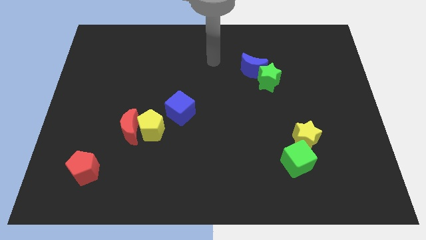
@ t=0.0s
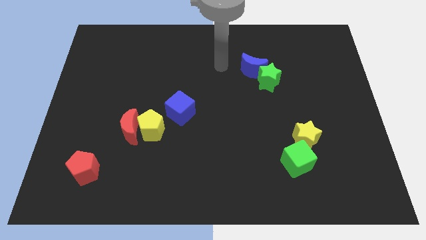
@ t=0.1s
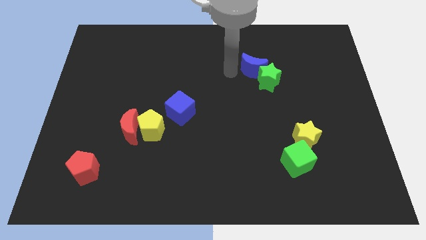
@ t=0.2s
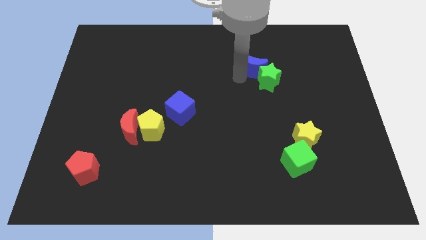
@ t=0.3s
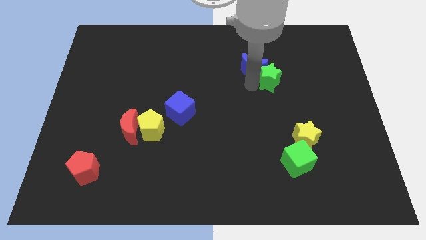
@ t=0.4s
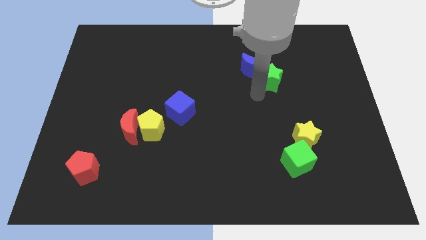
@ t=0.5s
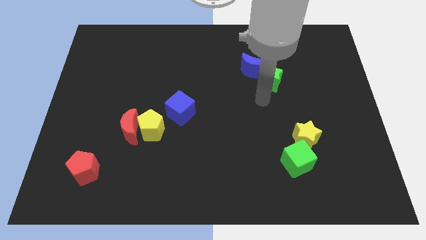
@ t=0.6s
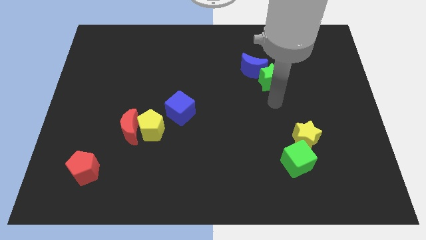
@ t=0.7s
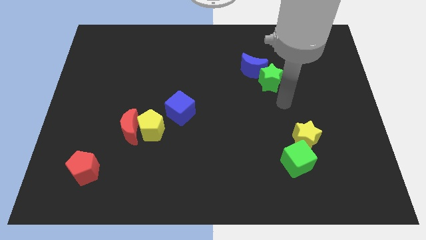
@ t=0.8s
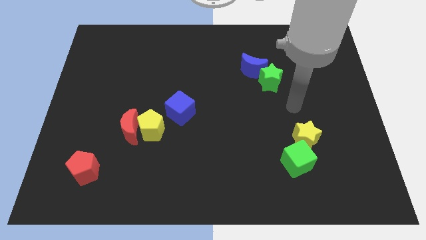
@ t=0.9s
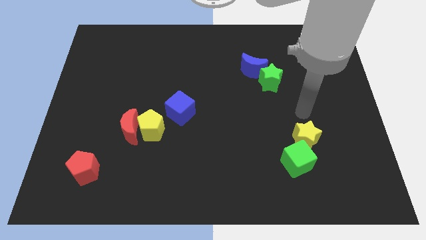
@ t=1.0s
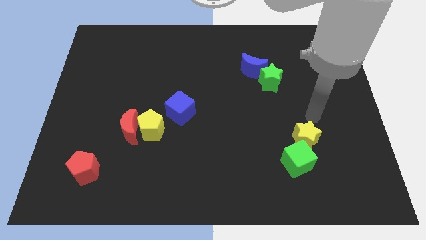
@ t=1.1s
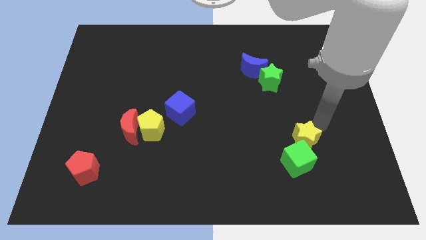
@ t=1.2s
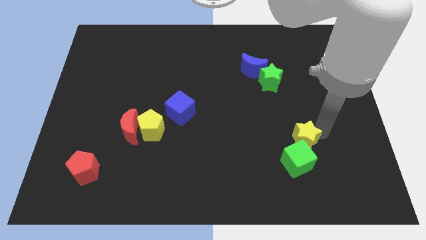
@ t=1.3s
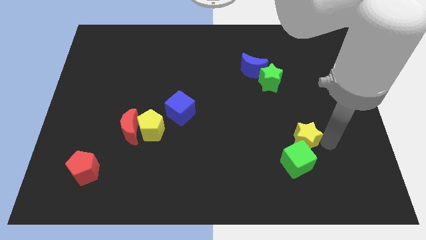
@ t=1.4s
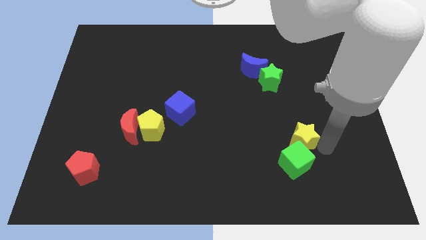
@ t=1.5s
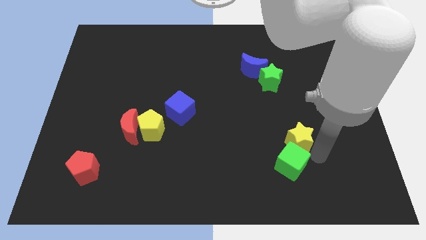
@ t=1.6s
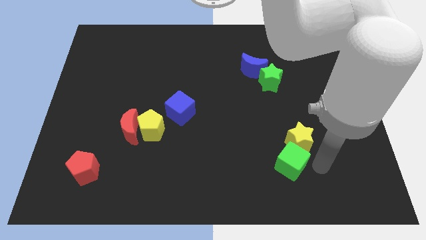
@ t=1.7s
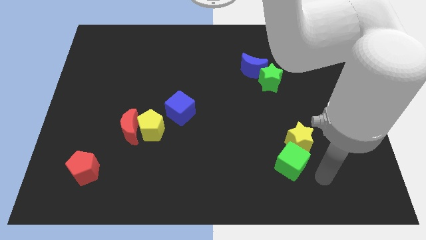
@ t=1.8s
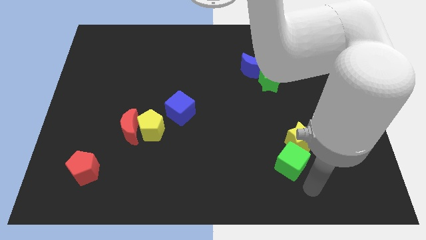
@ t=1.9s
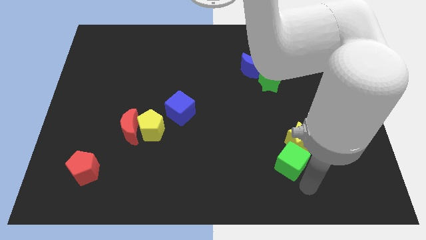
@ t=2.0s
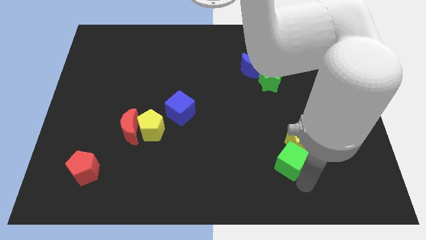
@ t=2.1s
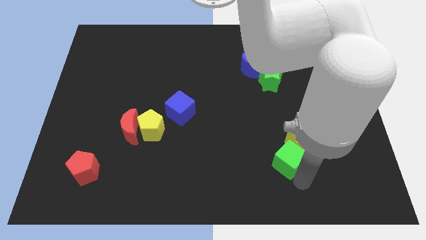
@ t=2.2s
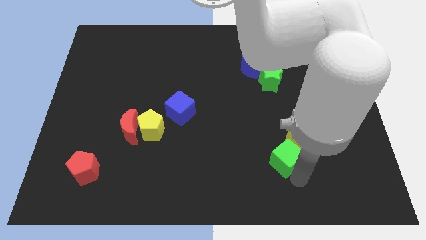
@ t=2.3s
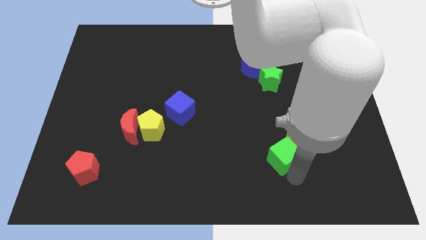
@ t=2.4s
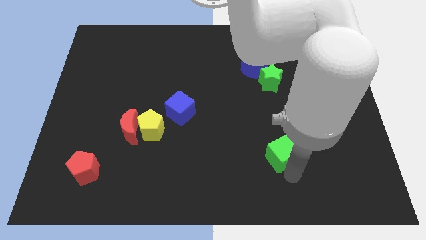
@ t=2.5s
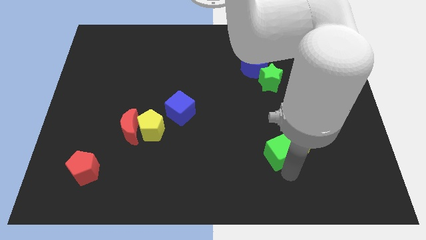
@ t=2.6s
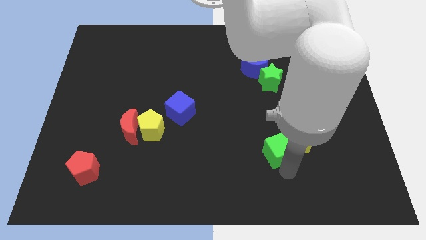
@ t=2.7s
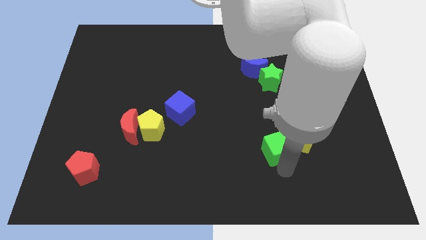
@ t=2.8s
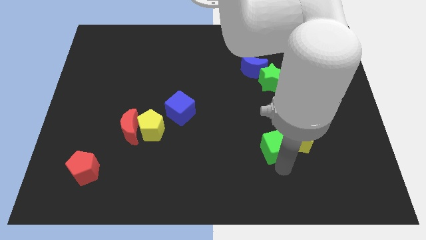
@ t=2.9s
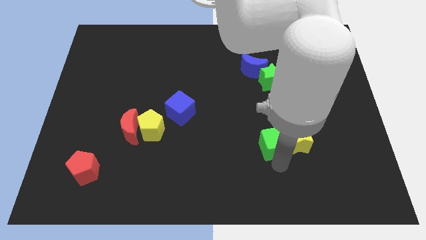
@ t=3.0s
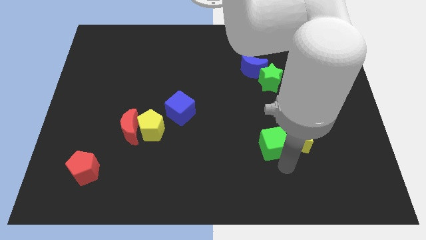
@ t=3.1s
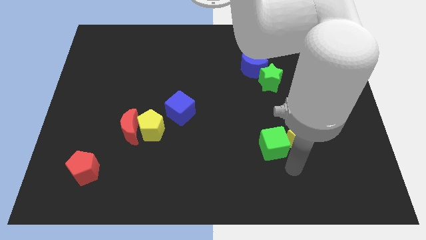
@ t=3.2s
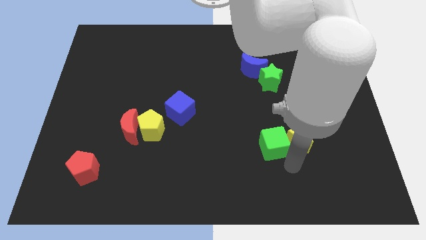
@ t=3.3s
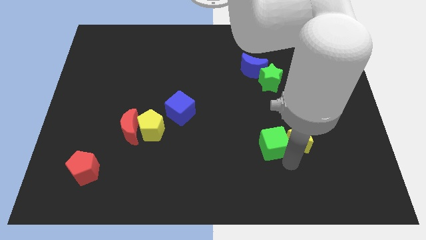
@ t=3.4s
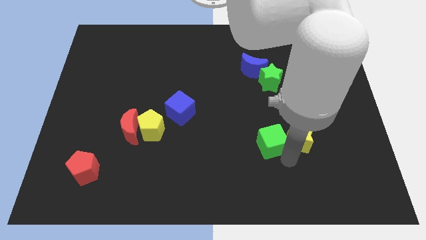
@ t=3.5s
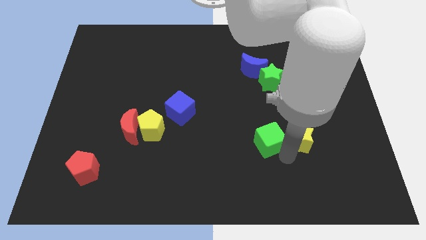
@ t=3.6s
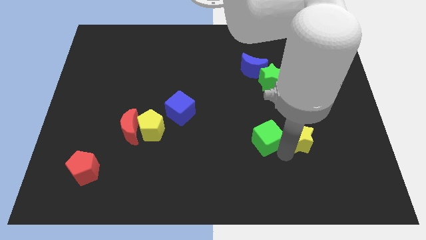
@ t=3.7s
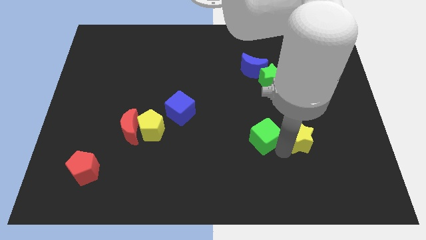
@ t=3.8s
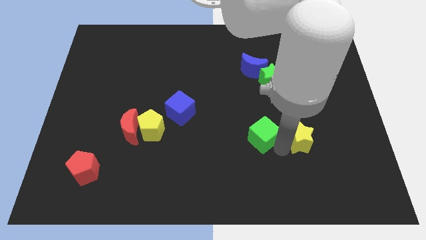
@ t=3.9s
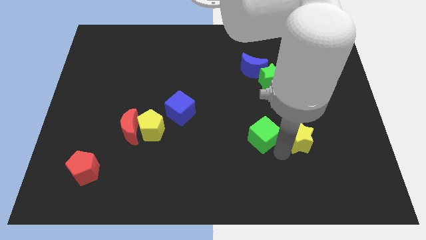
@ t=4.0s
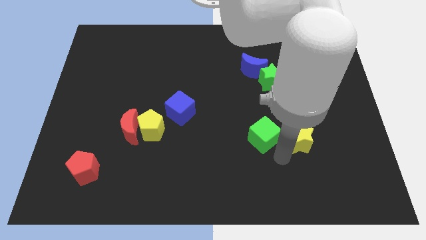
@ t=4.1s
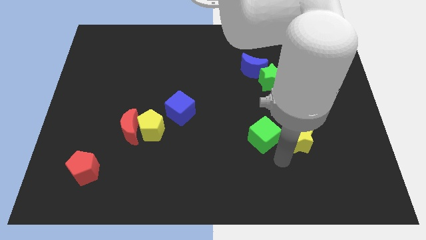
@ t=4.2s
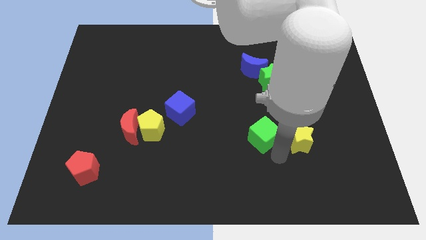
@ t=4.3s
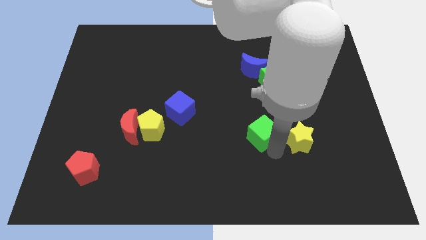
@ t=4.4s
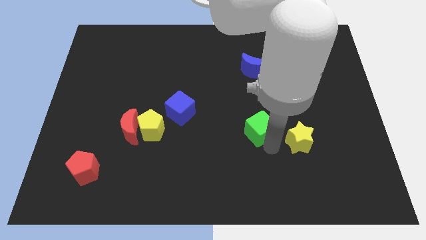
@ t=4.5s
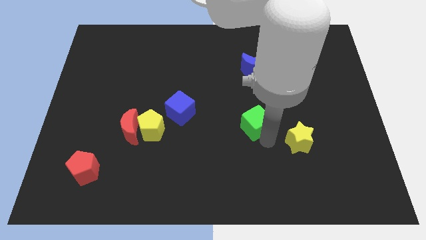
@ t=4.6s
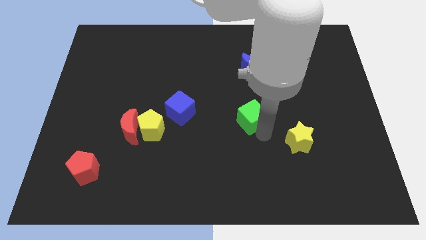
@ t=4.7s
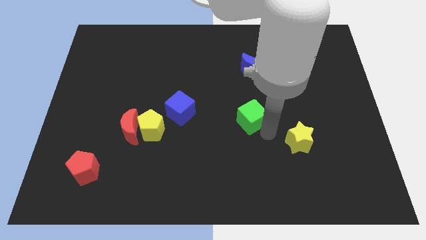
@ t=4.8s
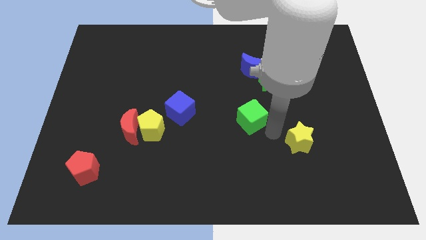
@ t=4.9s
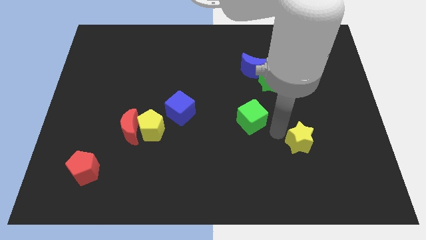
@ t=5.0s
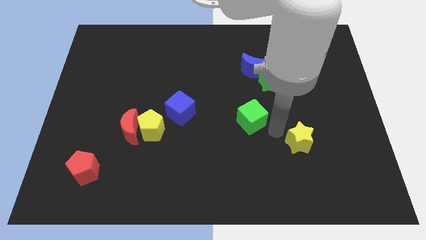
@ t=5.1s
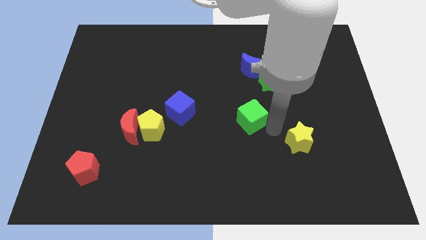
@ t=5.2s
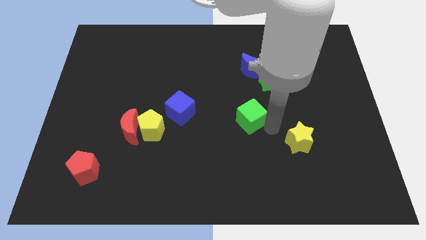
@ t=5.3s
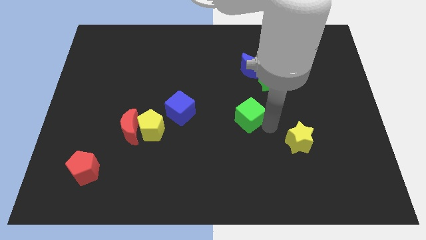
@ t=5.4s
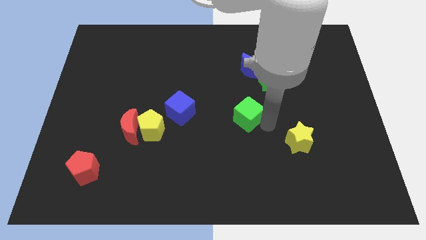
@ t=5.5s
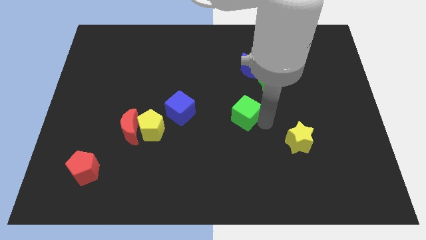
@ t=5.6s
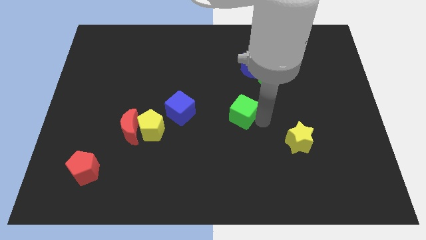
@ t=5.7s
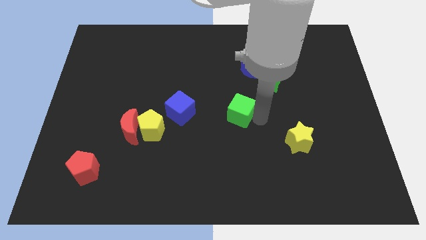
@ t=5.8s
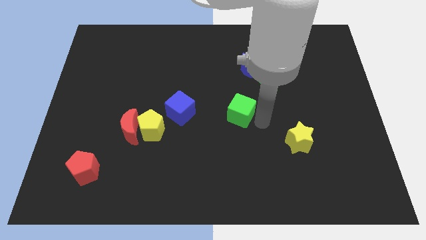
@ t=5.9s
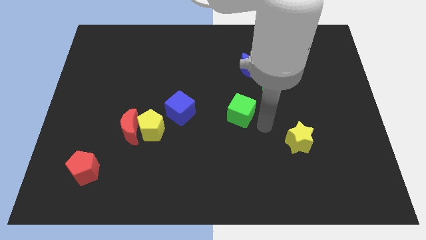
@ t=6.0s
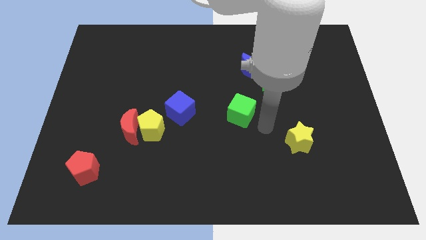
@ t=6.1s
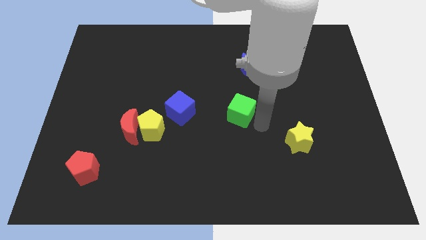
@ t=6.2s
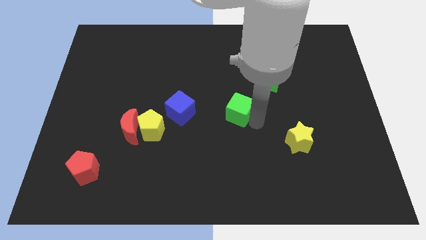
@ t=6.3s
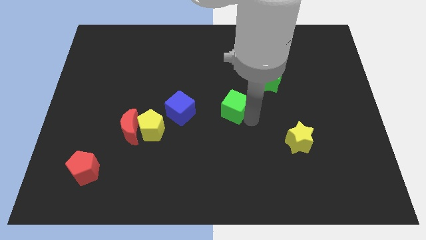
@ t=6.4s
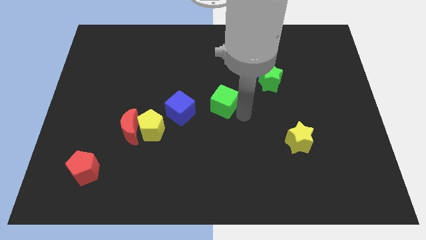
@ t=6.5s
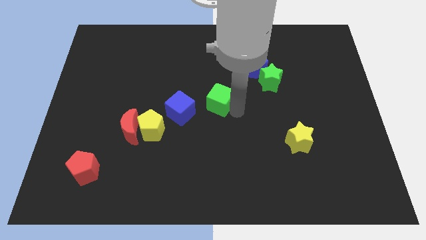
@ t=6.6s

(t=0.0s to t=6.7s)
put the green cube to the top right of the blue cube

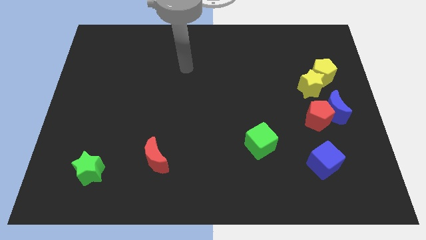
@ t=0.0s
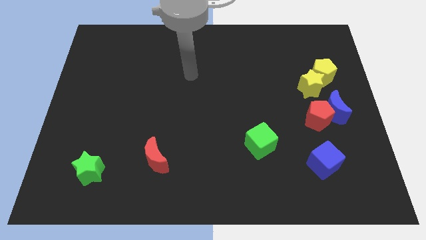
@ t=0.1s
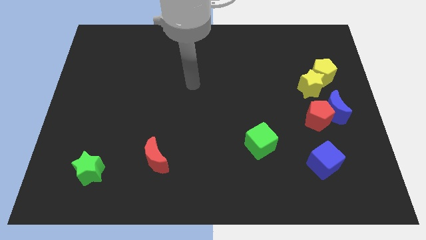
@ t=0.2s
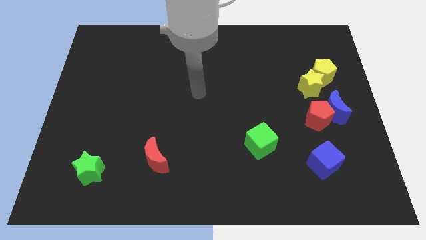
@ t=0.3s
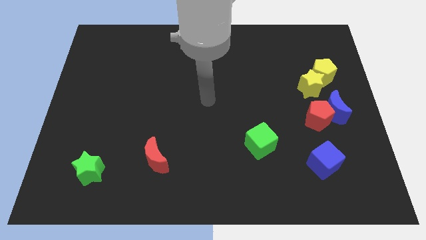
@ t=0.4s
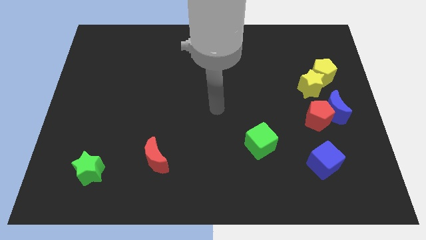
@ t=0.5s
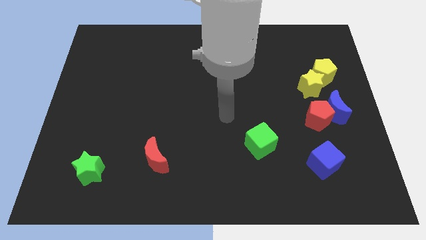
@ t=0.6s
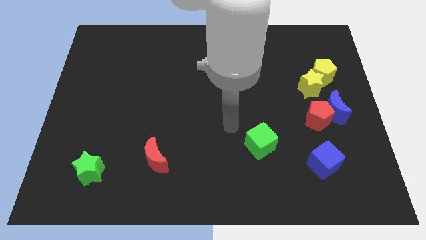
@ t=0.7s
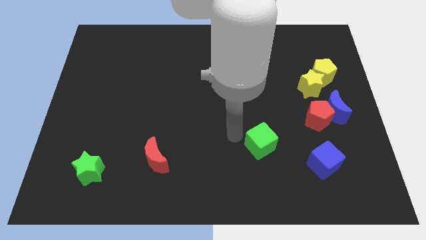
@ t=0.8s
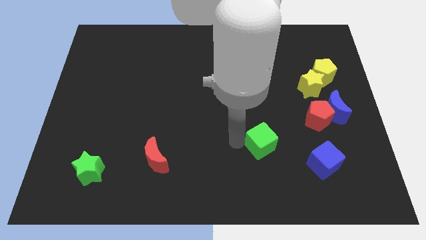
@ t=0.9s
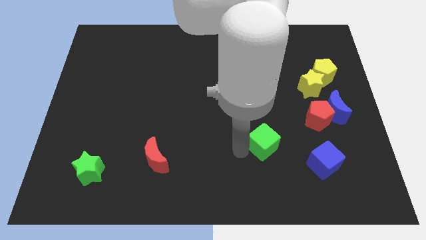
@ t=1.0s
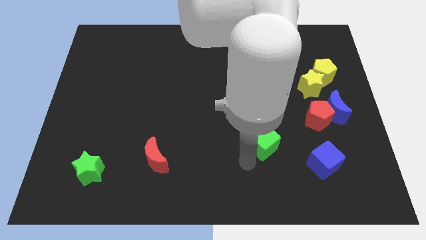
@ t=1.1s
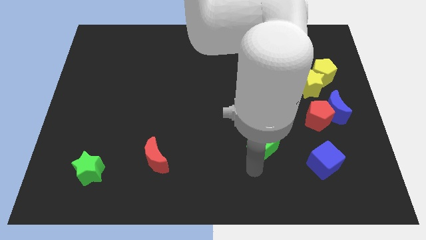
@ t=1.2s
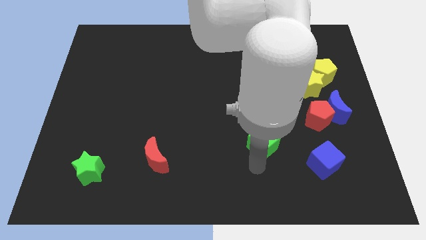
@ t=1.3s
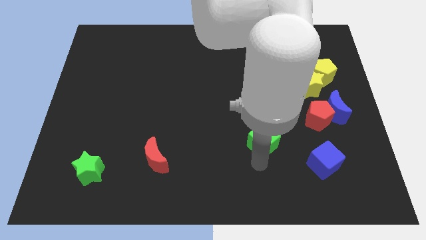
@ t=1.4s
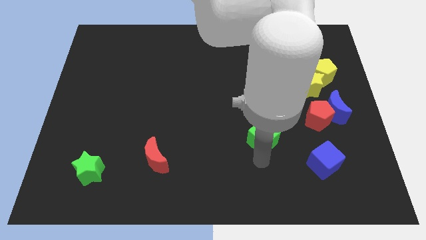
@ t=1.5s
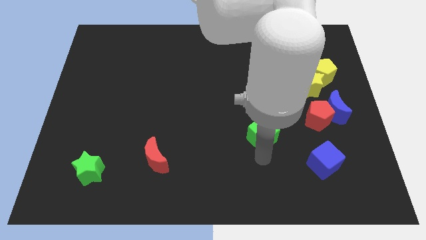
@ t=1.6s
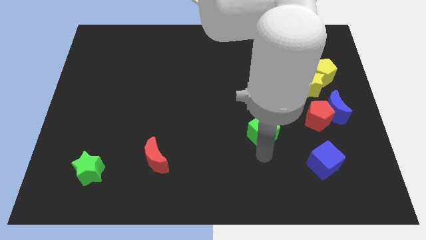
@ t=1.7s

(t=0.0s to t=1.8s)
move the green cube to the left of the red pentagon
